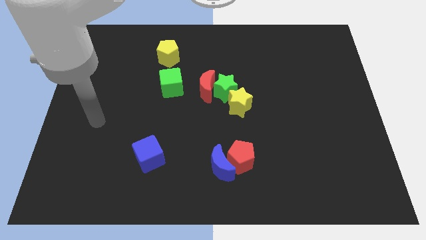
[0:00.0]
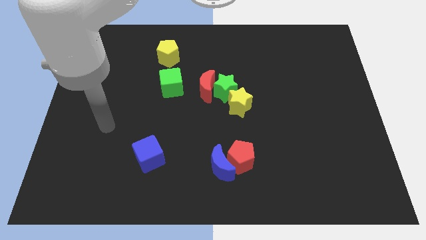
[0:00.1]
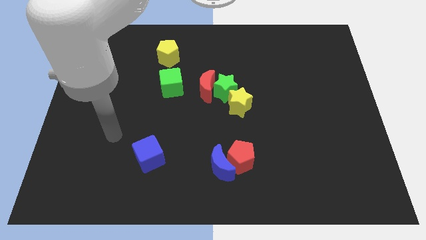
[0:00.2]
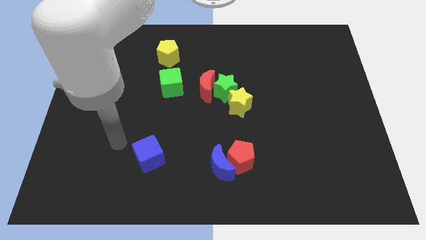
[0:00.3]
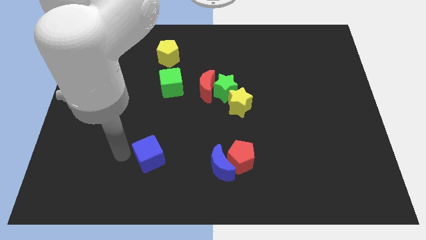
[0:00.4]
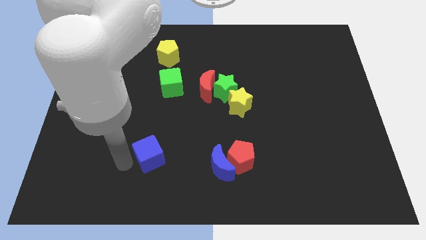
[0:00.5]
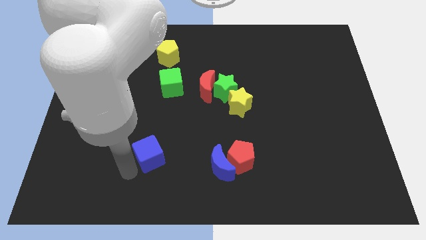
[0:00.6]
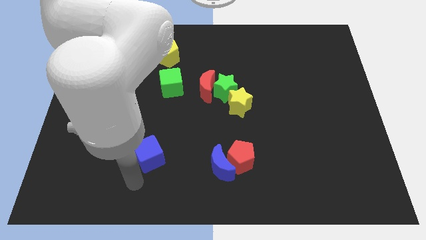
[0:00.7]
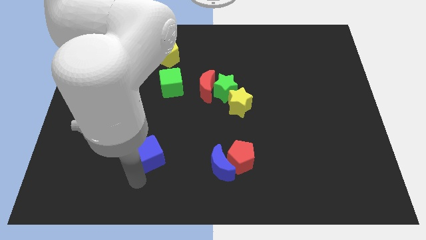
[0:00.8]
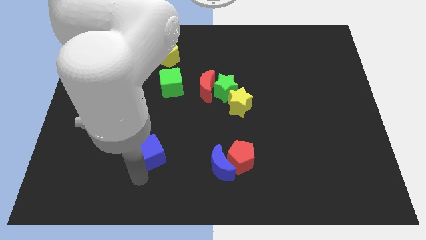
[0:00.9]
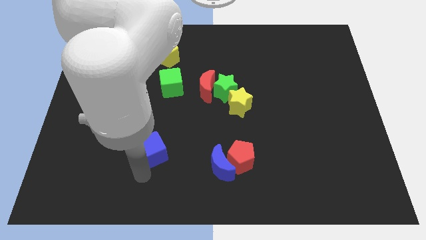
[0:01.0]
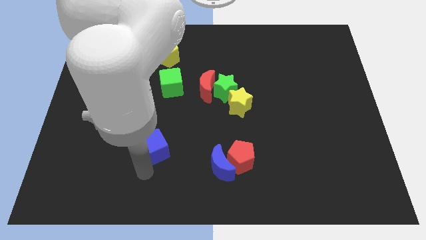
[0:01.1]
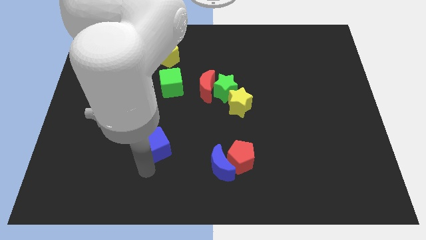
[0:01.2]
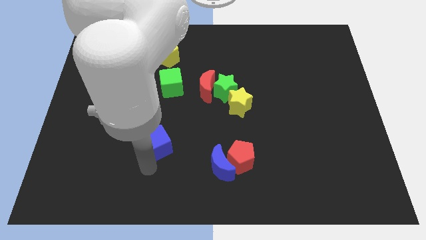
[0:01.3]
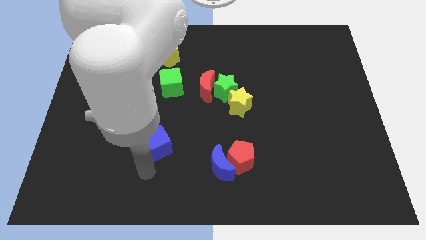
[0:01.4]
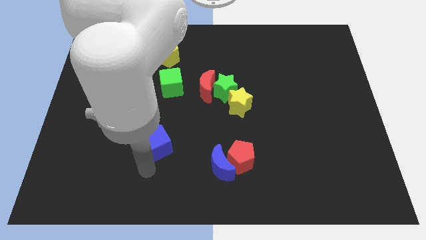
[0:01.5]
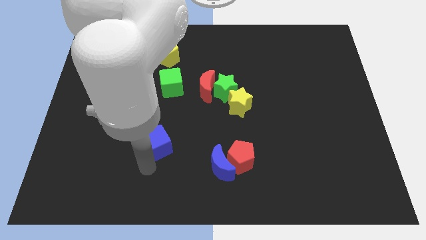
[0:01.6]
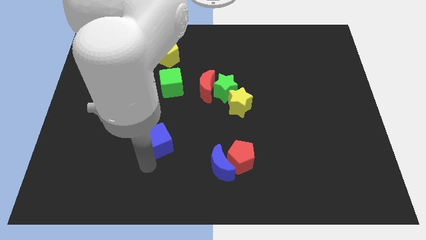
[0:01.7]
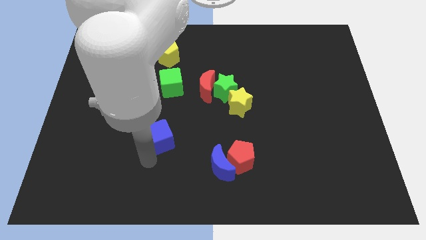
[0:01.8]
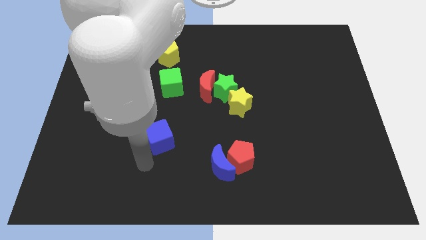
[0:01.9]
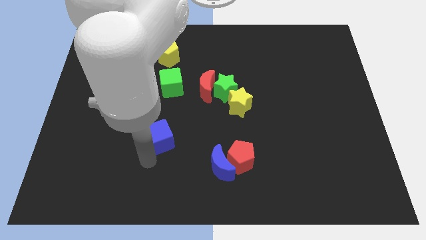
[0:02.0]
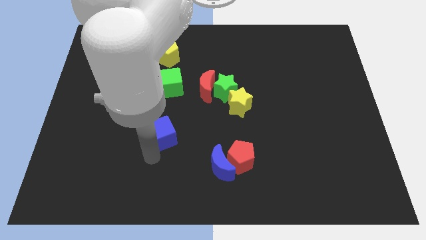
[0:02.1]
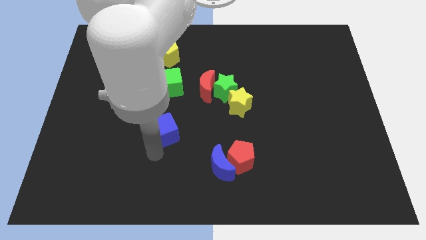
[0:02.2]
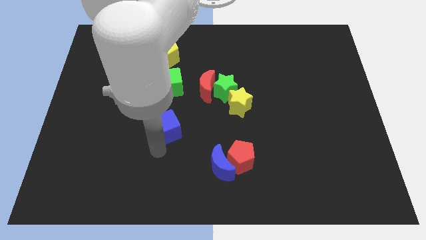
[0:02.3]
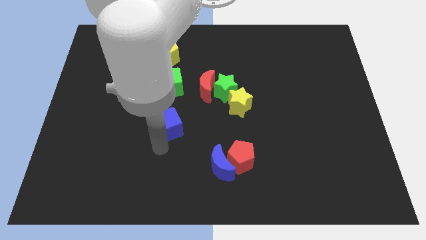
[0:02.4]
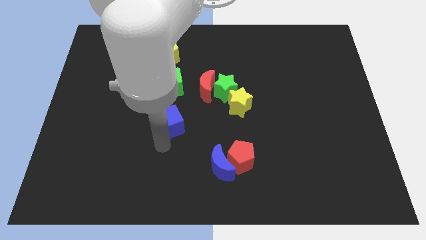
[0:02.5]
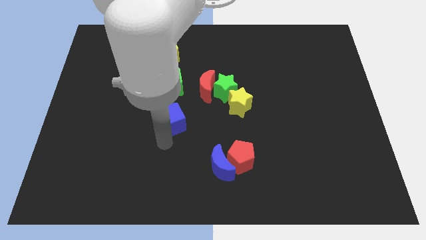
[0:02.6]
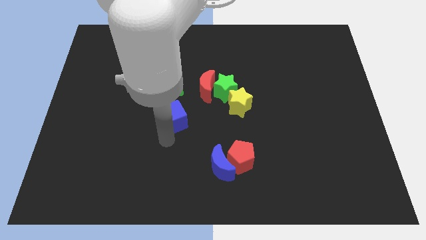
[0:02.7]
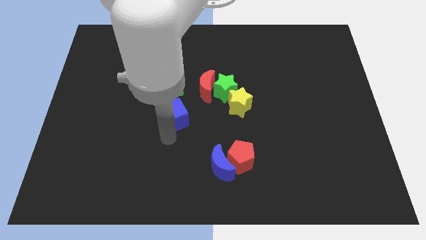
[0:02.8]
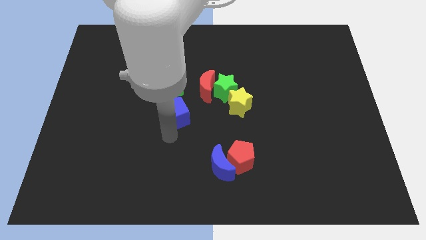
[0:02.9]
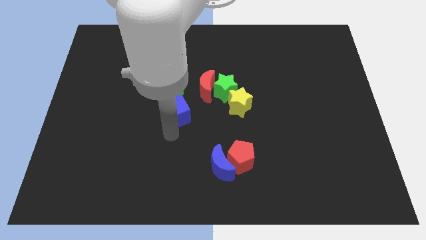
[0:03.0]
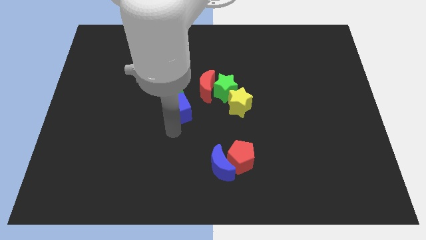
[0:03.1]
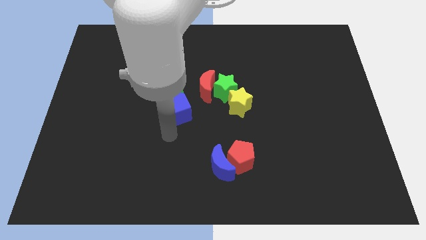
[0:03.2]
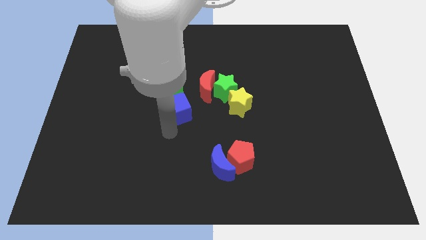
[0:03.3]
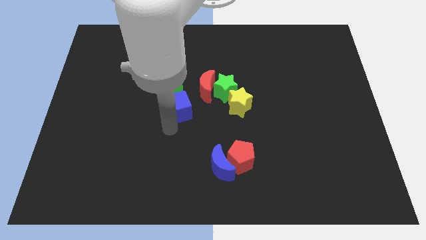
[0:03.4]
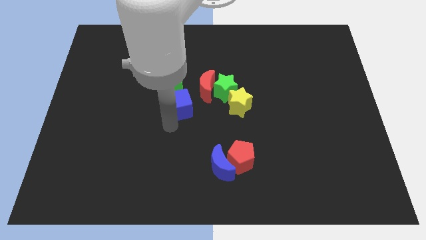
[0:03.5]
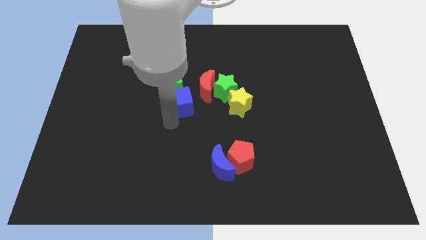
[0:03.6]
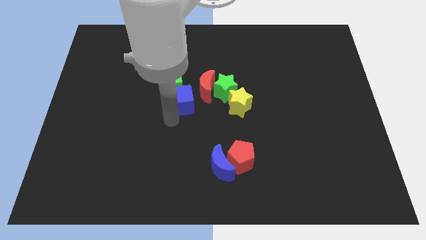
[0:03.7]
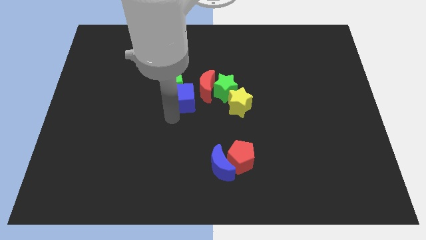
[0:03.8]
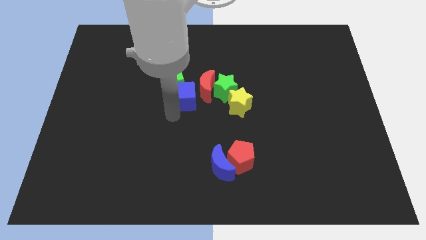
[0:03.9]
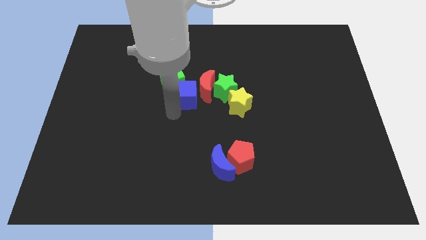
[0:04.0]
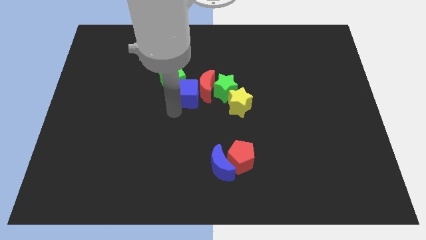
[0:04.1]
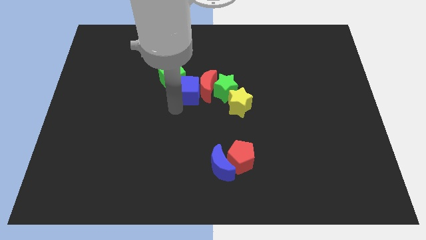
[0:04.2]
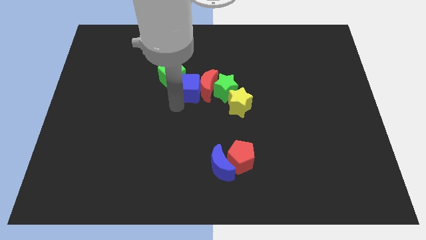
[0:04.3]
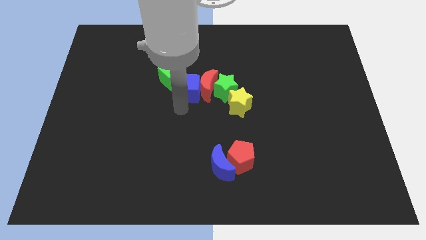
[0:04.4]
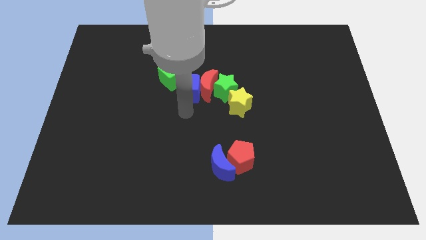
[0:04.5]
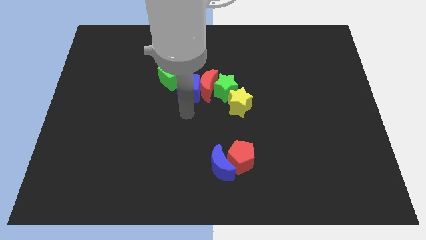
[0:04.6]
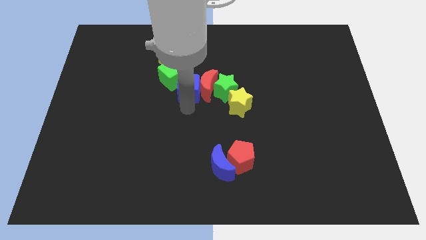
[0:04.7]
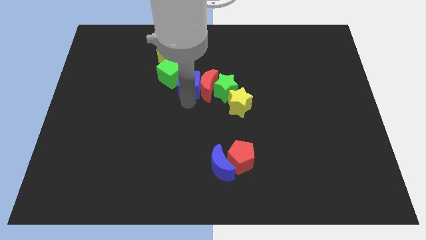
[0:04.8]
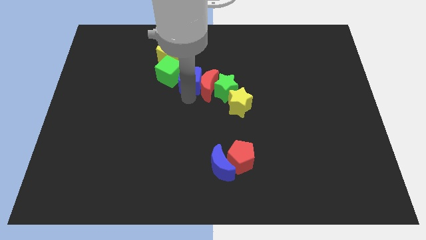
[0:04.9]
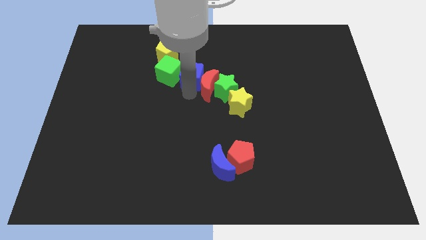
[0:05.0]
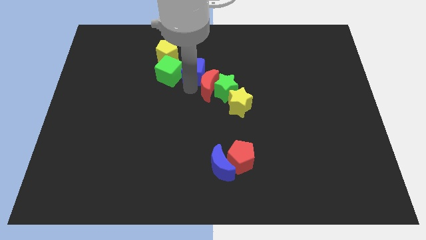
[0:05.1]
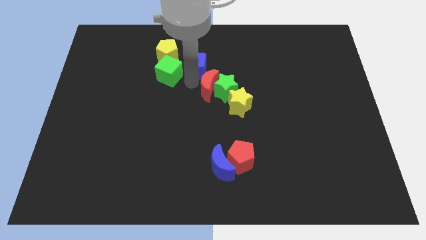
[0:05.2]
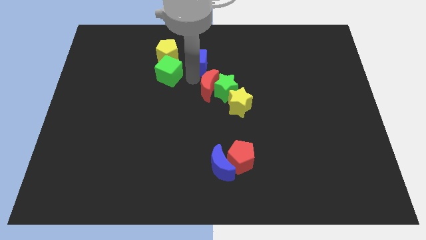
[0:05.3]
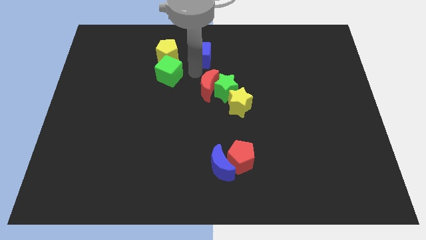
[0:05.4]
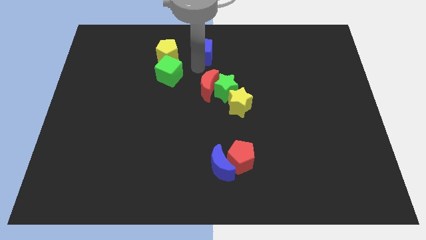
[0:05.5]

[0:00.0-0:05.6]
push the blue cube to the top side

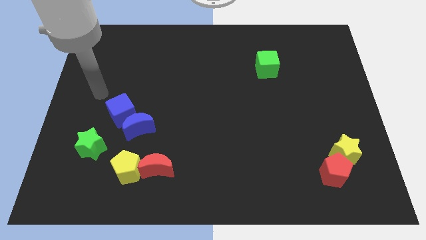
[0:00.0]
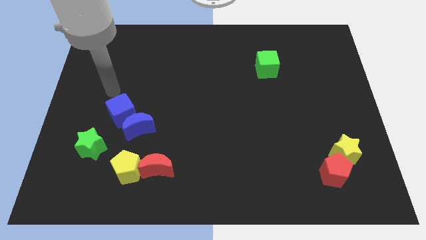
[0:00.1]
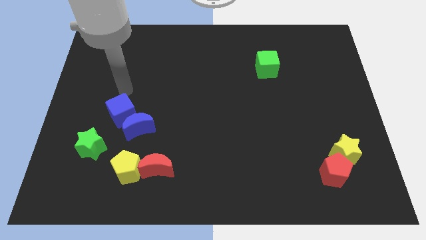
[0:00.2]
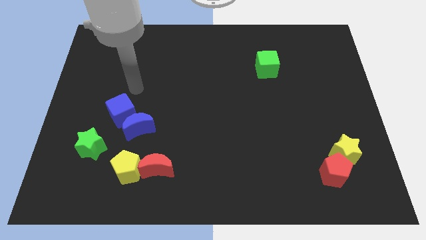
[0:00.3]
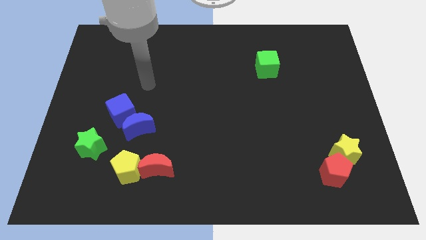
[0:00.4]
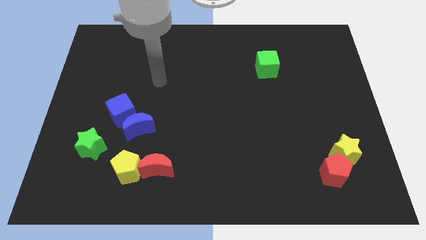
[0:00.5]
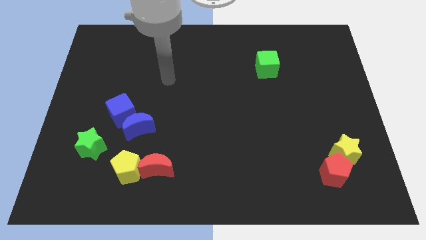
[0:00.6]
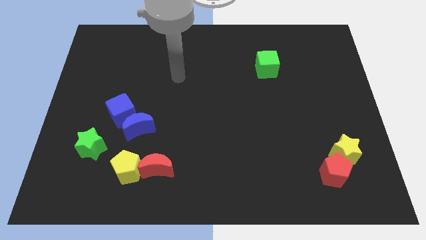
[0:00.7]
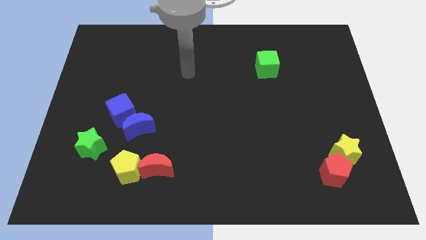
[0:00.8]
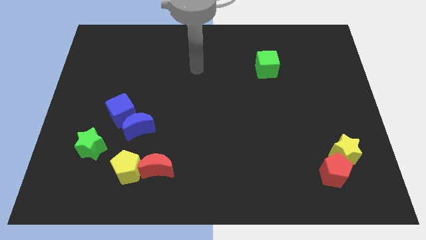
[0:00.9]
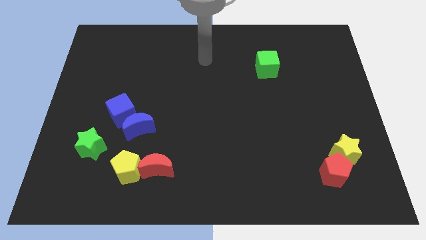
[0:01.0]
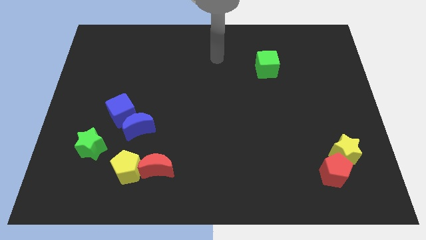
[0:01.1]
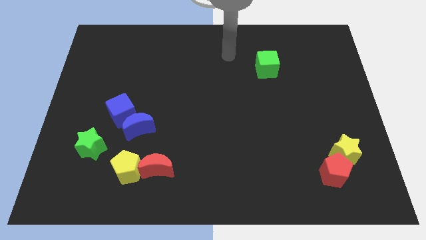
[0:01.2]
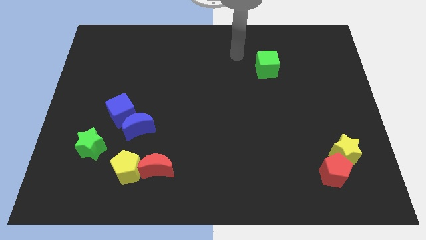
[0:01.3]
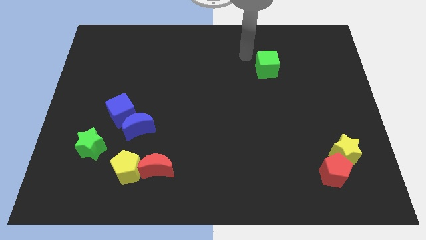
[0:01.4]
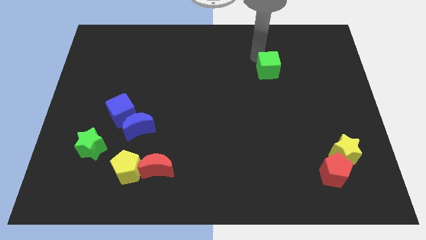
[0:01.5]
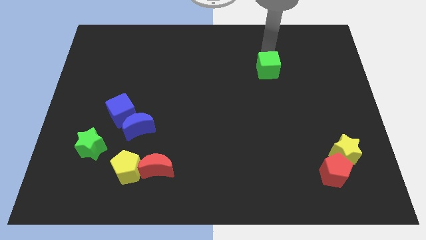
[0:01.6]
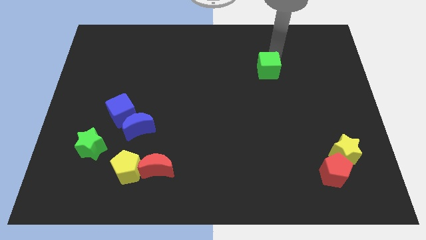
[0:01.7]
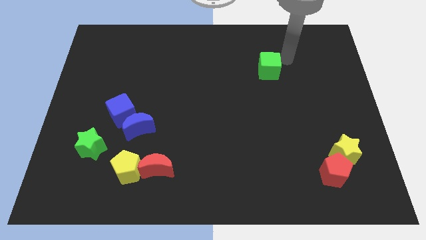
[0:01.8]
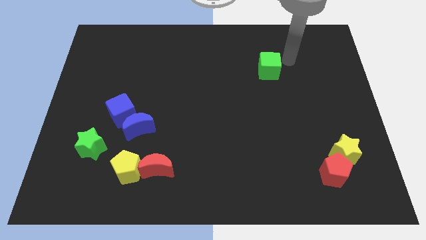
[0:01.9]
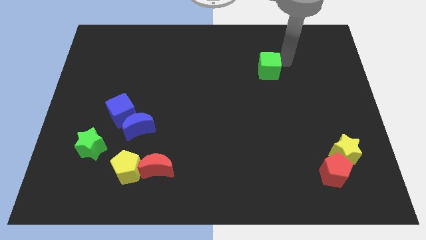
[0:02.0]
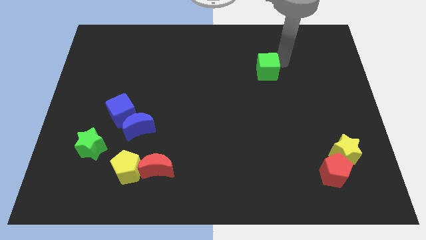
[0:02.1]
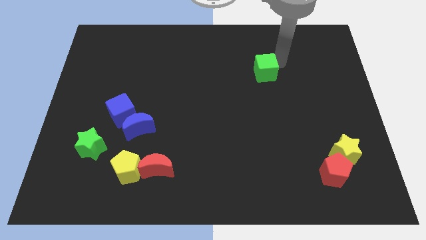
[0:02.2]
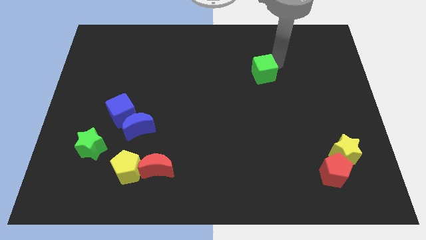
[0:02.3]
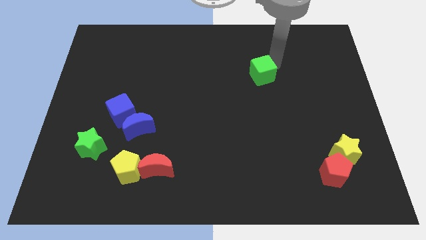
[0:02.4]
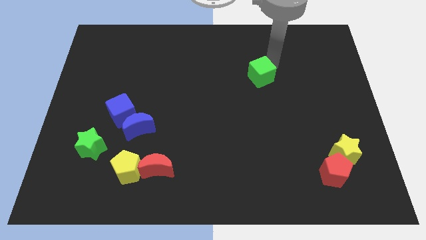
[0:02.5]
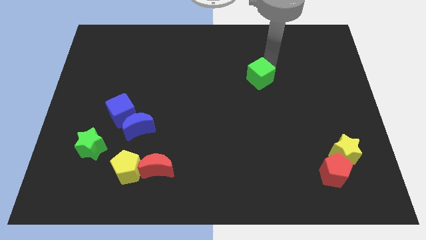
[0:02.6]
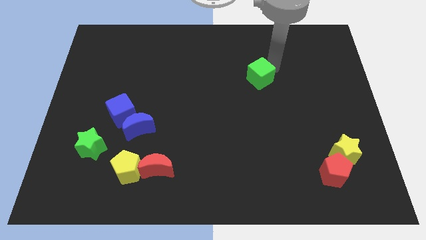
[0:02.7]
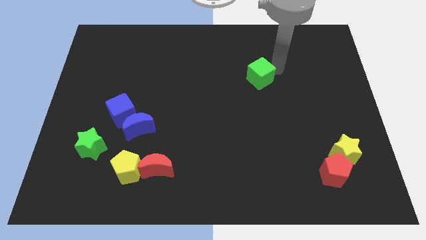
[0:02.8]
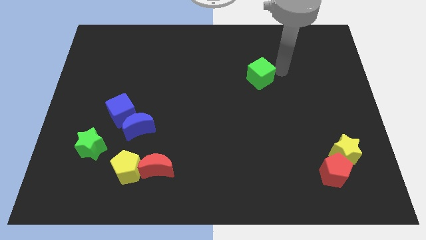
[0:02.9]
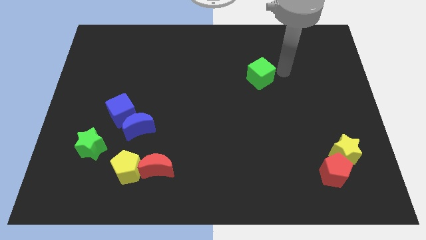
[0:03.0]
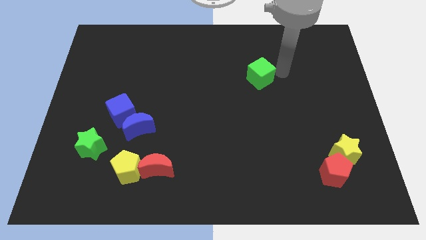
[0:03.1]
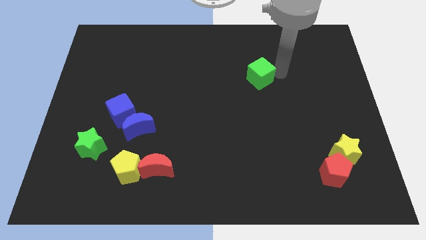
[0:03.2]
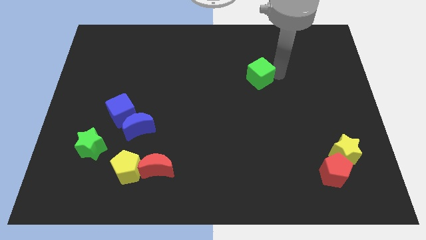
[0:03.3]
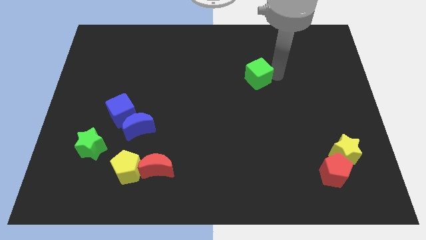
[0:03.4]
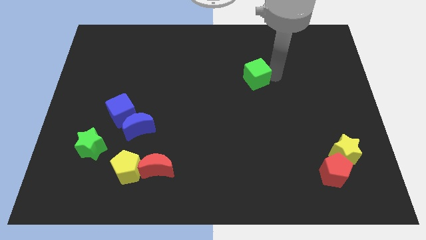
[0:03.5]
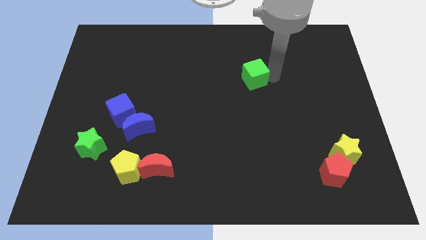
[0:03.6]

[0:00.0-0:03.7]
put the green cube to the center of the board
